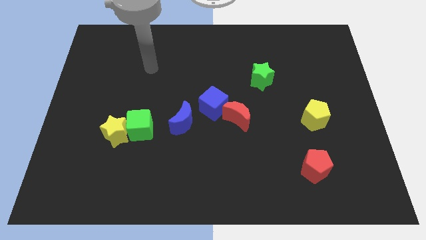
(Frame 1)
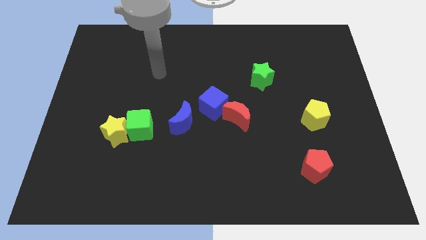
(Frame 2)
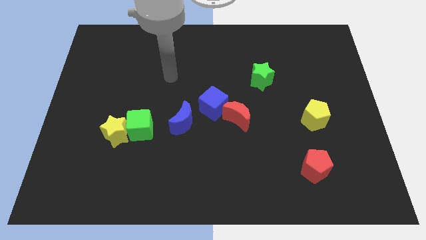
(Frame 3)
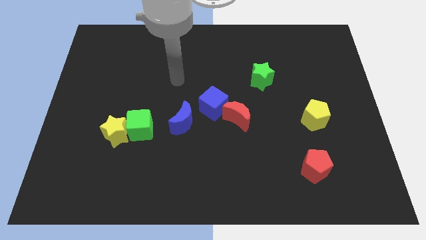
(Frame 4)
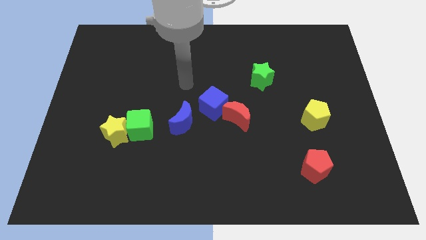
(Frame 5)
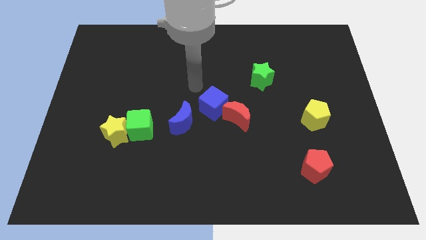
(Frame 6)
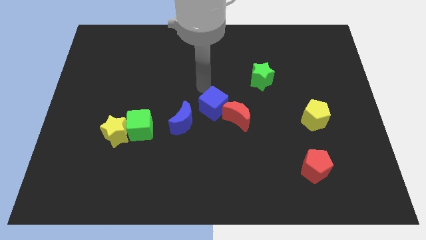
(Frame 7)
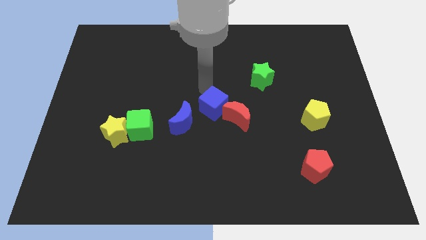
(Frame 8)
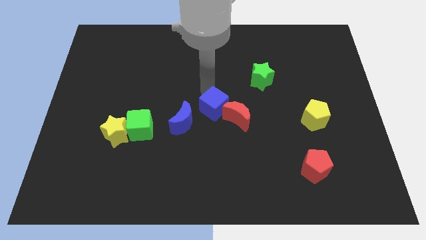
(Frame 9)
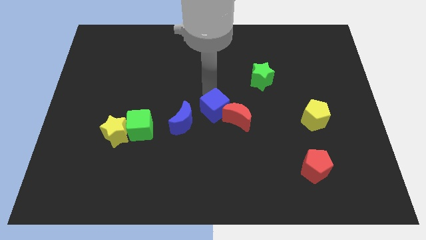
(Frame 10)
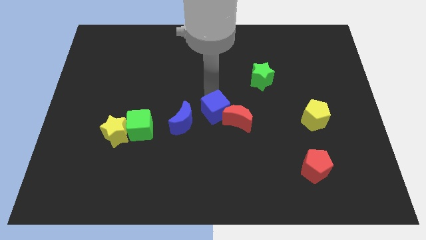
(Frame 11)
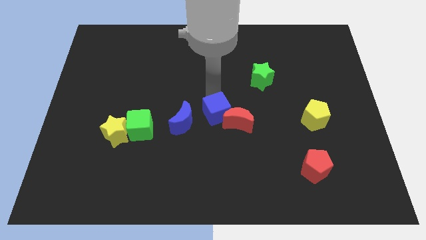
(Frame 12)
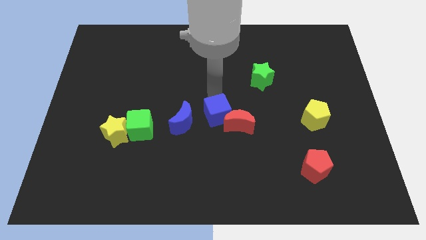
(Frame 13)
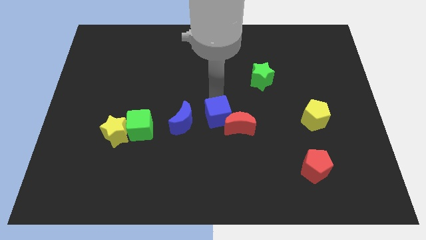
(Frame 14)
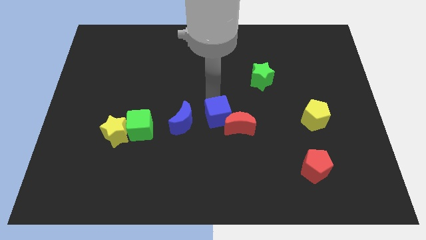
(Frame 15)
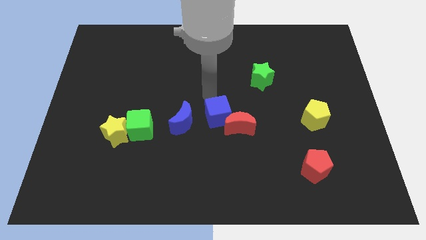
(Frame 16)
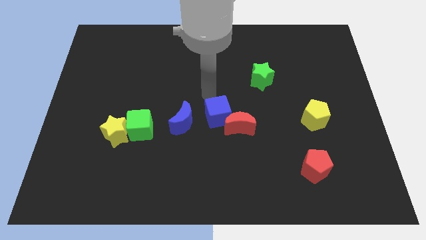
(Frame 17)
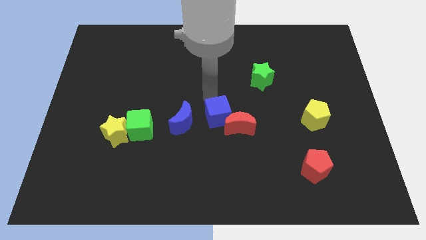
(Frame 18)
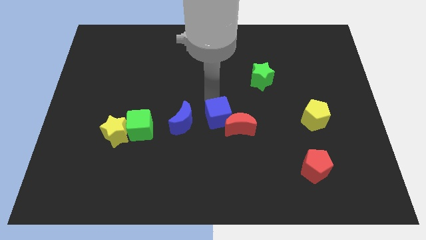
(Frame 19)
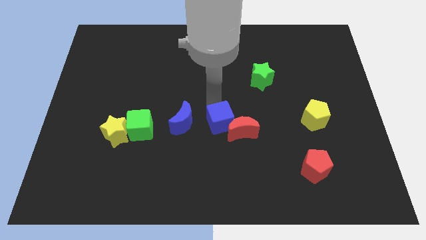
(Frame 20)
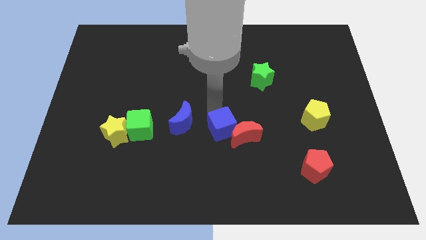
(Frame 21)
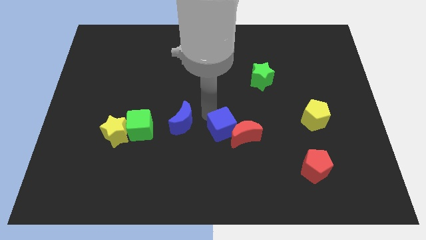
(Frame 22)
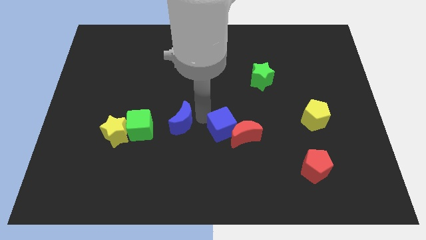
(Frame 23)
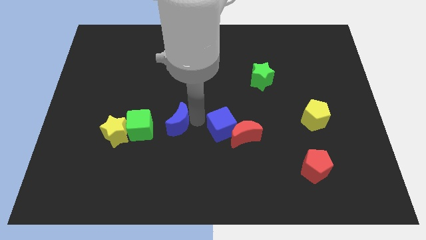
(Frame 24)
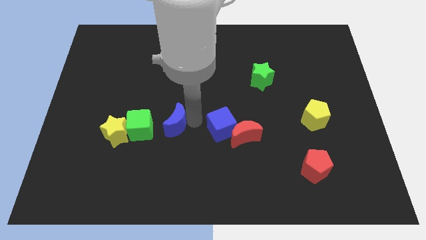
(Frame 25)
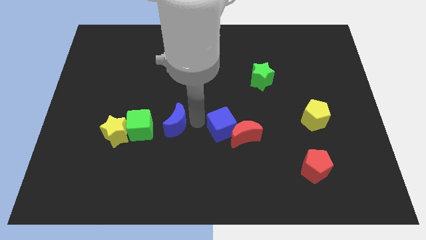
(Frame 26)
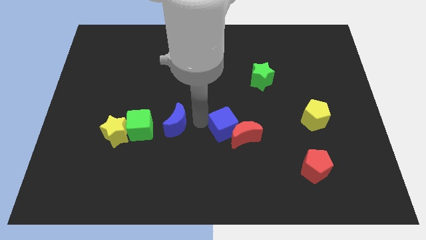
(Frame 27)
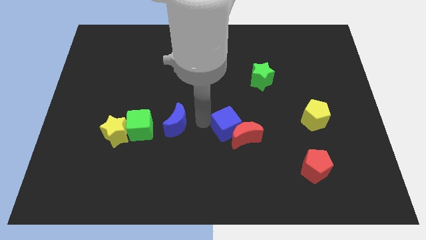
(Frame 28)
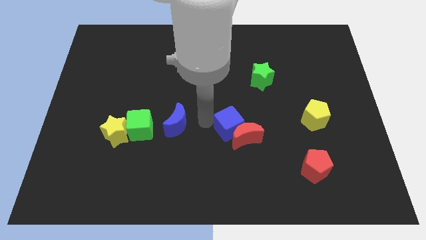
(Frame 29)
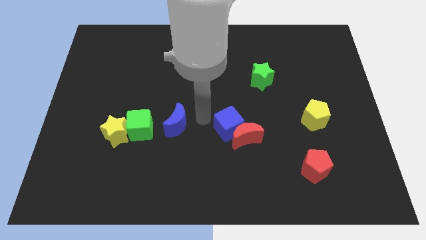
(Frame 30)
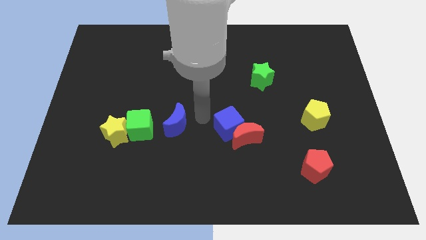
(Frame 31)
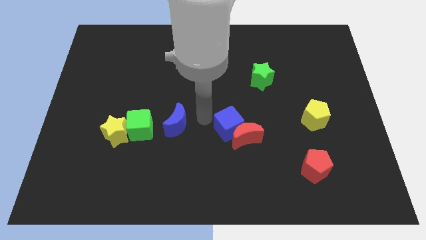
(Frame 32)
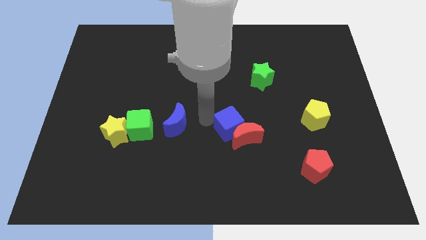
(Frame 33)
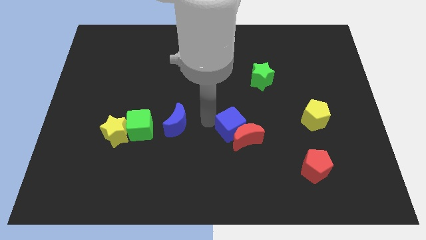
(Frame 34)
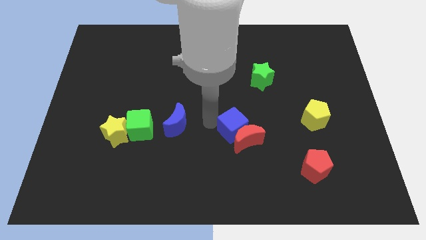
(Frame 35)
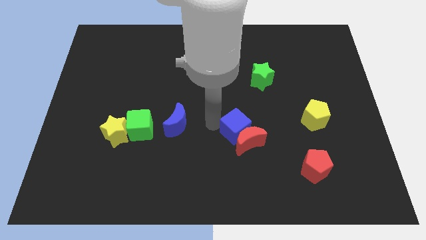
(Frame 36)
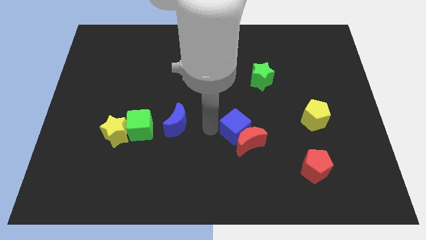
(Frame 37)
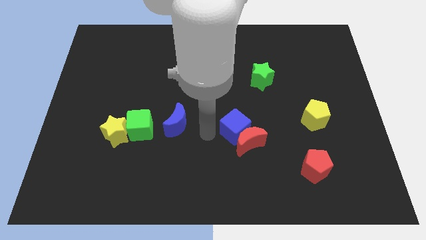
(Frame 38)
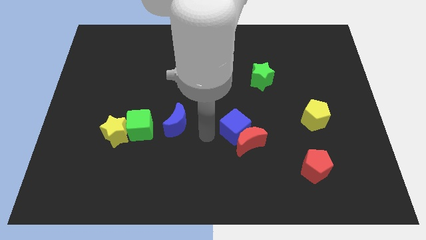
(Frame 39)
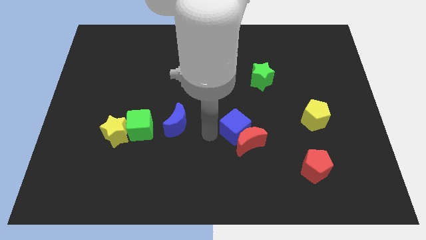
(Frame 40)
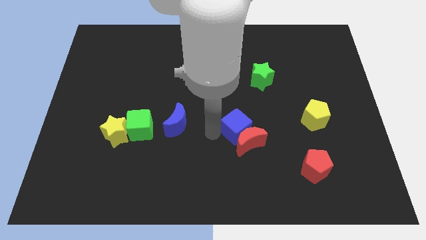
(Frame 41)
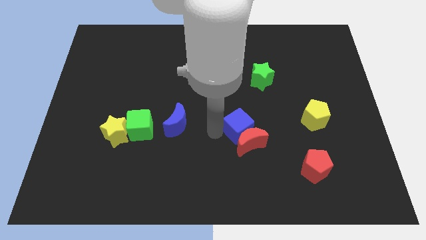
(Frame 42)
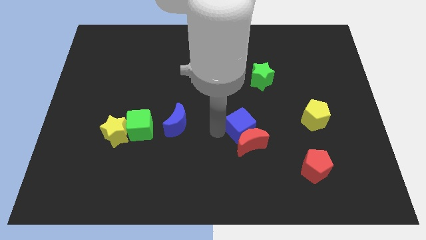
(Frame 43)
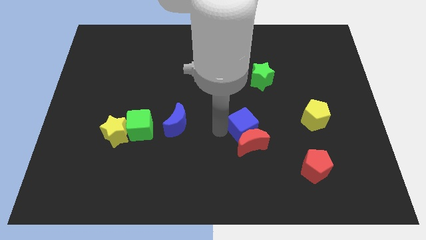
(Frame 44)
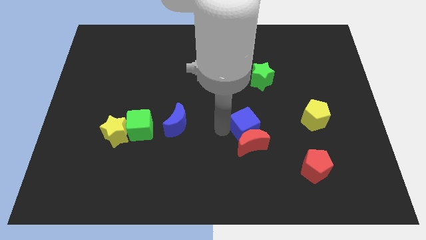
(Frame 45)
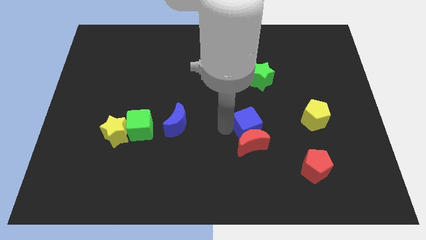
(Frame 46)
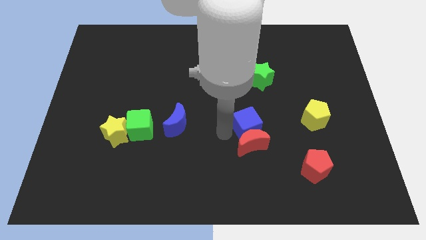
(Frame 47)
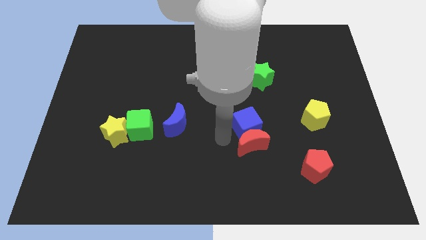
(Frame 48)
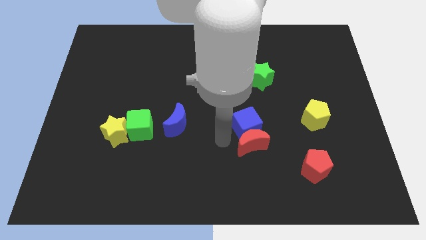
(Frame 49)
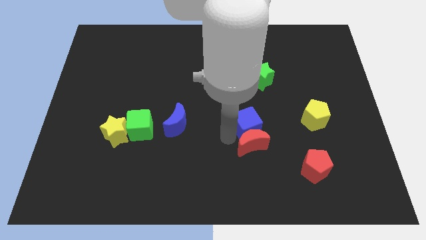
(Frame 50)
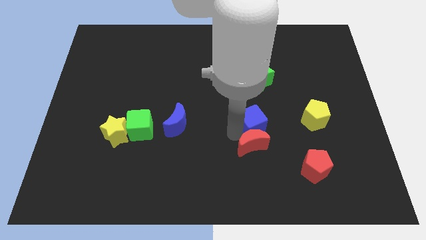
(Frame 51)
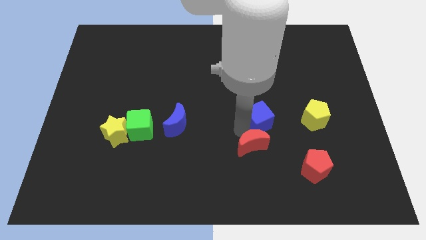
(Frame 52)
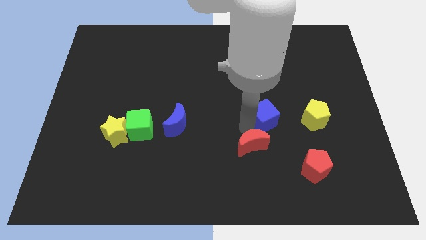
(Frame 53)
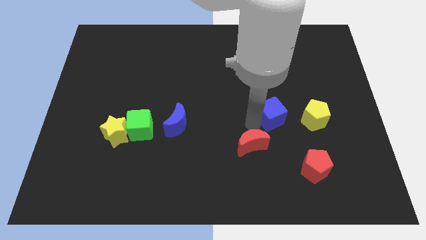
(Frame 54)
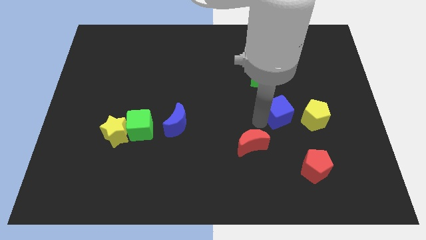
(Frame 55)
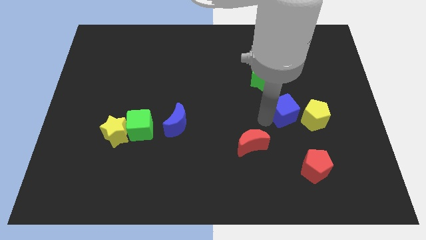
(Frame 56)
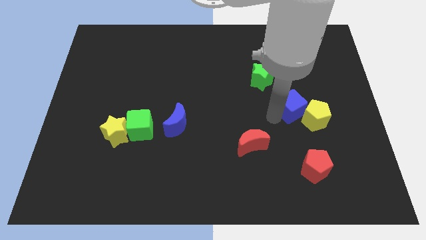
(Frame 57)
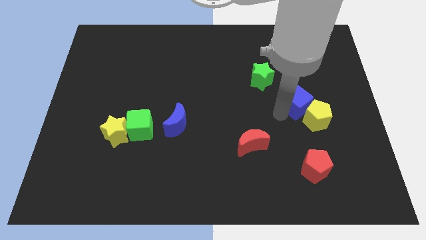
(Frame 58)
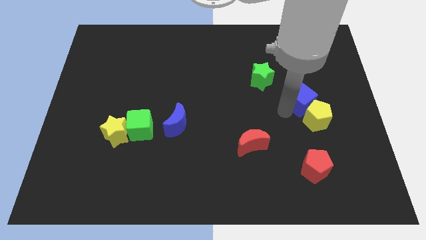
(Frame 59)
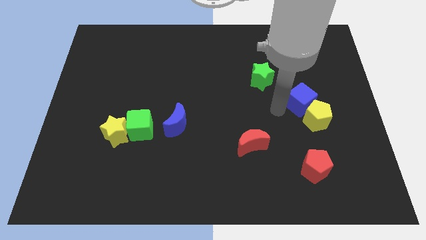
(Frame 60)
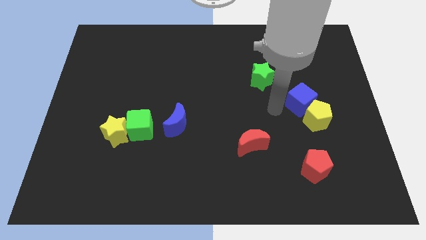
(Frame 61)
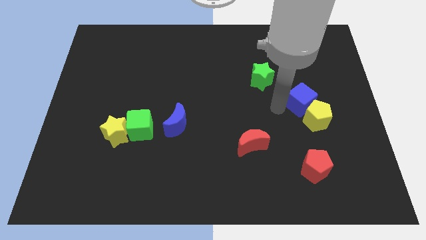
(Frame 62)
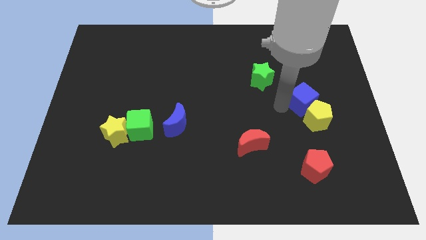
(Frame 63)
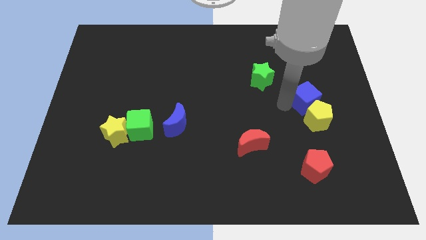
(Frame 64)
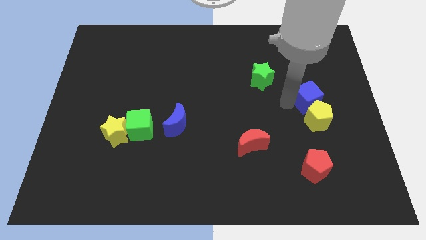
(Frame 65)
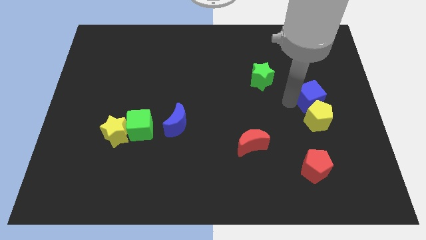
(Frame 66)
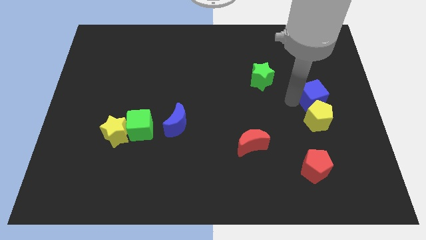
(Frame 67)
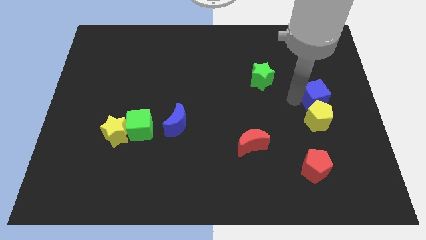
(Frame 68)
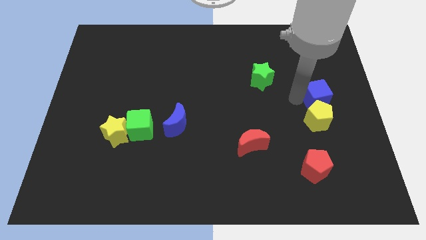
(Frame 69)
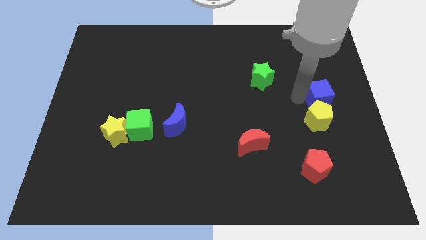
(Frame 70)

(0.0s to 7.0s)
push the blue cube to the right side of the board

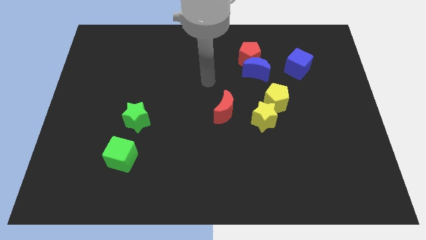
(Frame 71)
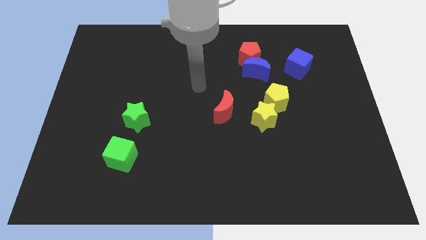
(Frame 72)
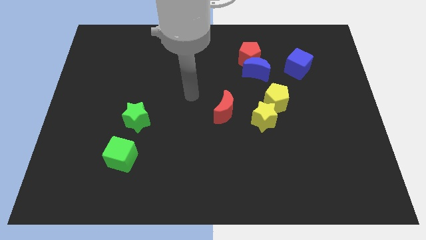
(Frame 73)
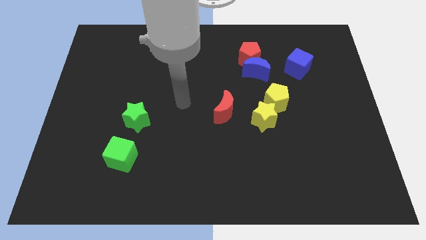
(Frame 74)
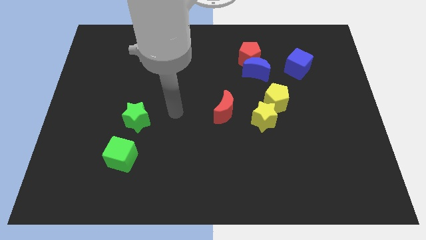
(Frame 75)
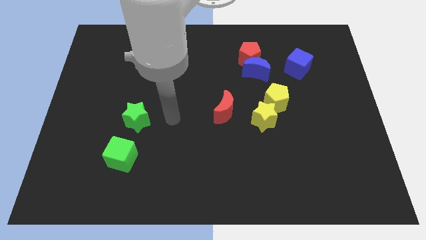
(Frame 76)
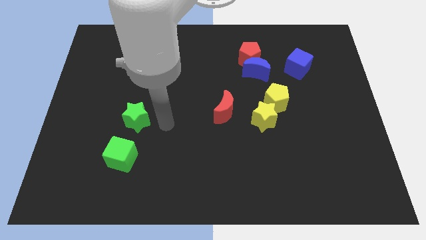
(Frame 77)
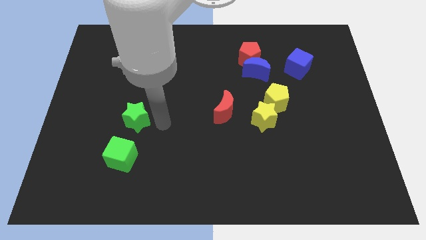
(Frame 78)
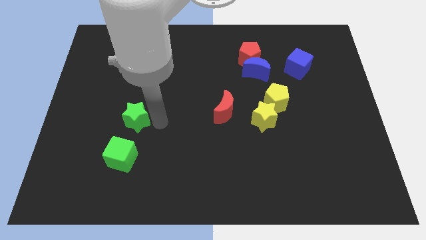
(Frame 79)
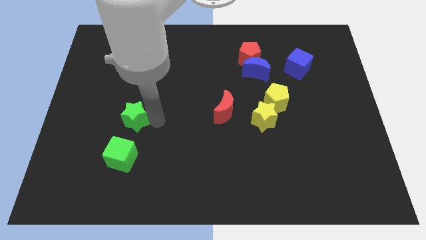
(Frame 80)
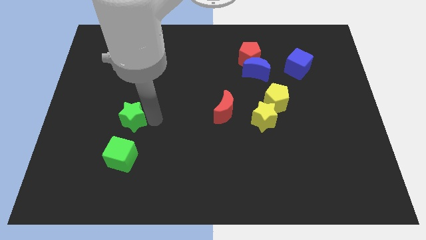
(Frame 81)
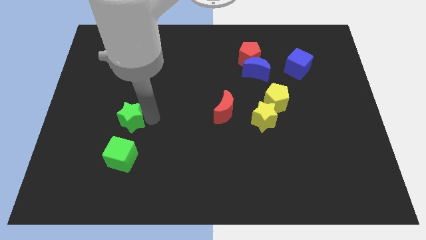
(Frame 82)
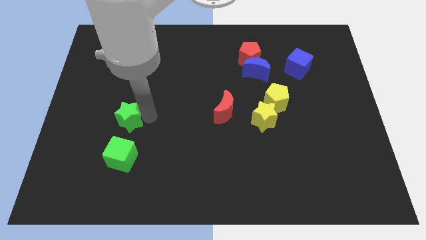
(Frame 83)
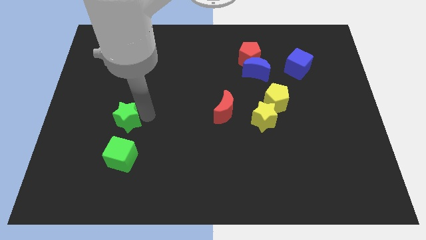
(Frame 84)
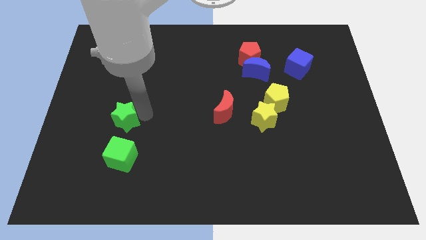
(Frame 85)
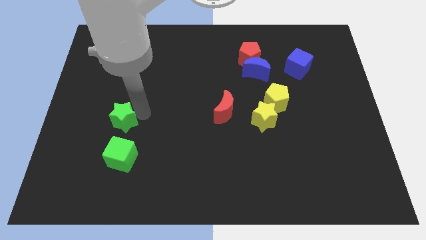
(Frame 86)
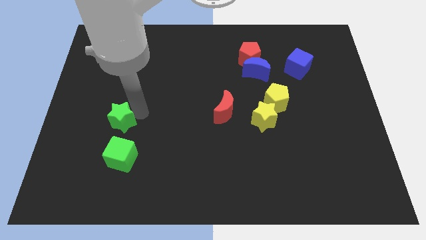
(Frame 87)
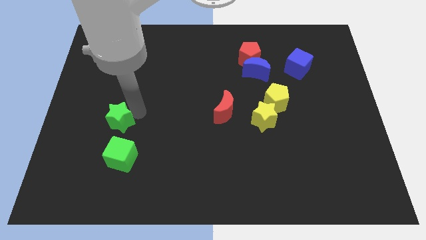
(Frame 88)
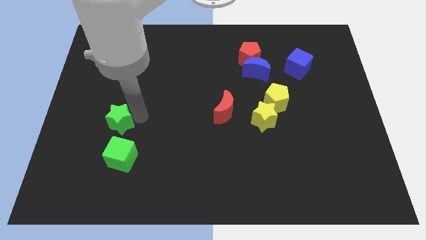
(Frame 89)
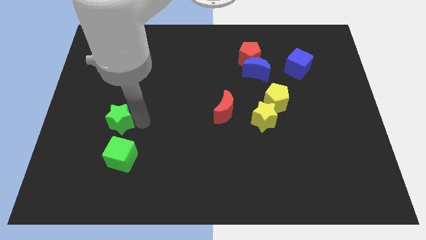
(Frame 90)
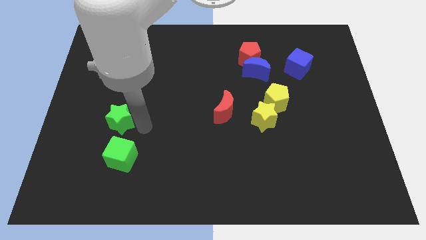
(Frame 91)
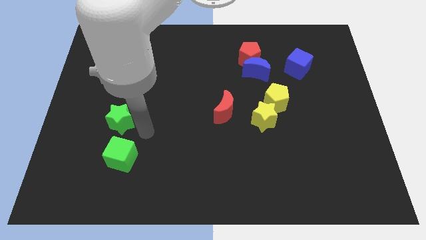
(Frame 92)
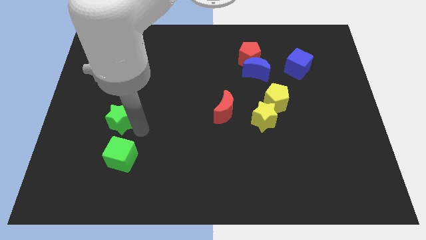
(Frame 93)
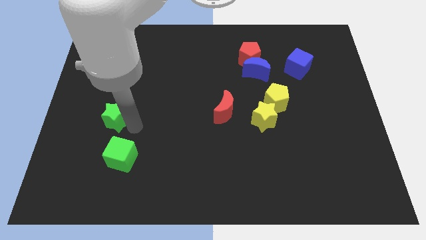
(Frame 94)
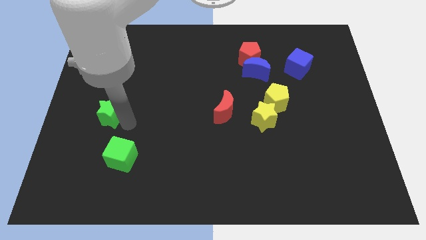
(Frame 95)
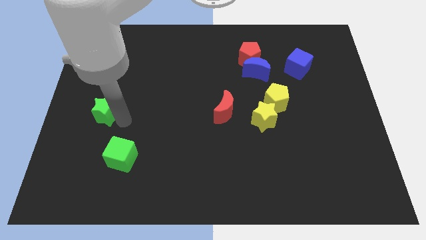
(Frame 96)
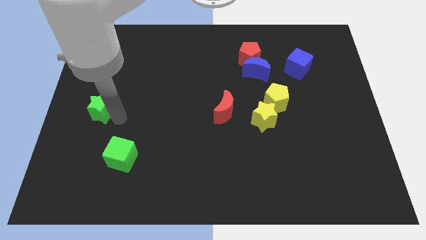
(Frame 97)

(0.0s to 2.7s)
put the green star to the center left
